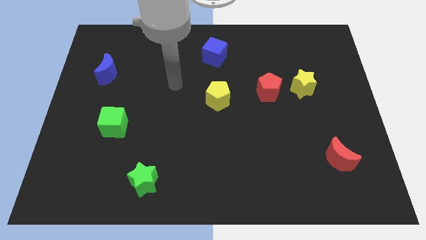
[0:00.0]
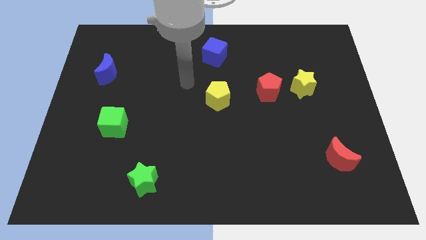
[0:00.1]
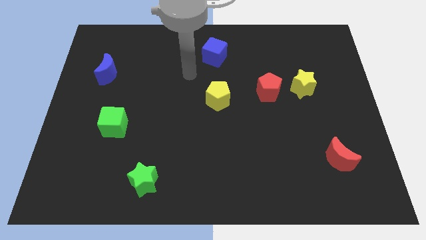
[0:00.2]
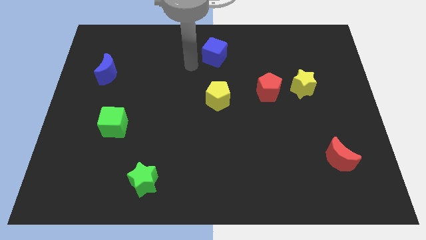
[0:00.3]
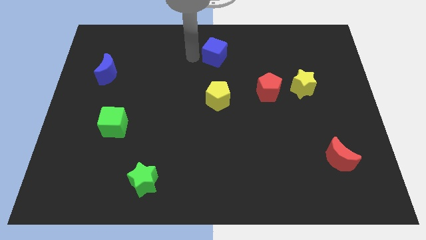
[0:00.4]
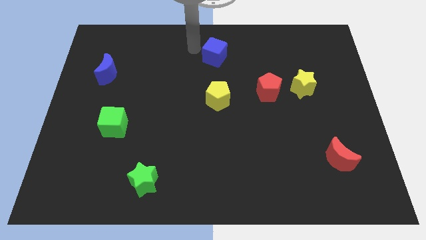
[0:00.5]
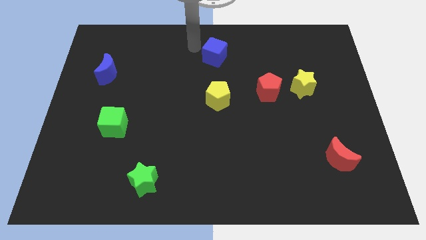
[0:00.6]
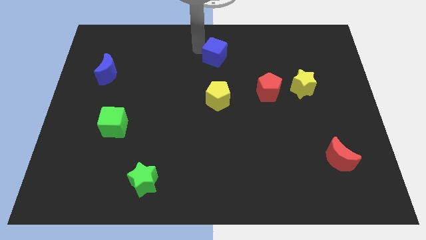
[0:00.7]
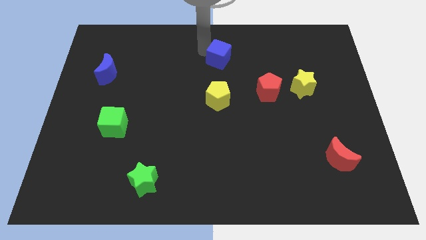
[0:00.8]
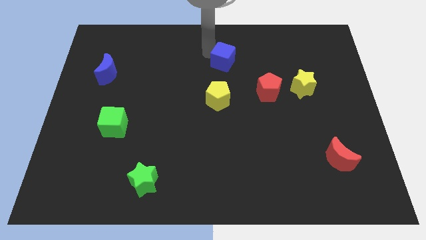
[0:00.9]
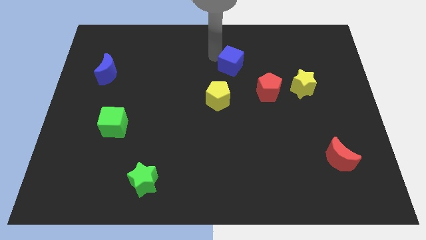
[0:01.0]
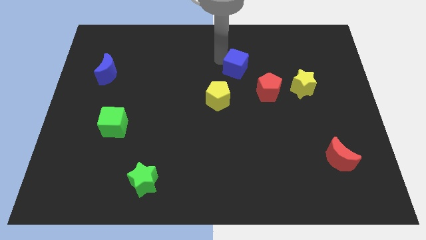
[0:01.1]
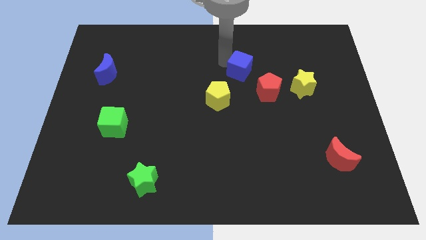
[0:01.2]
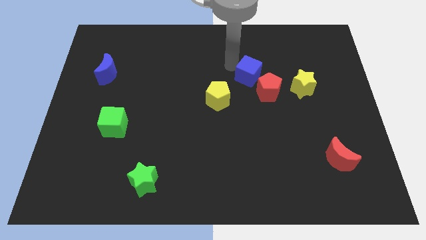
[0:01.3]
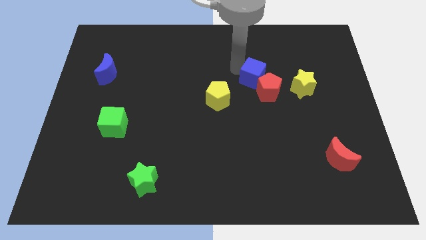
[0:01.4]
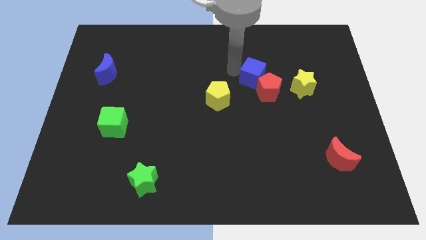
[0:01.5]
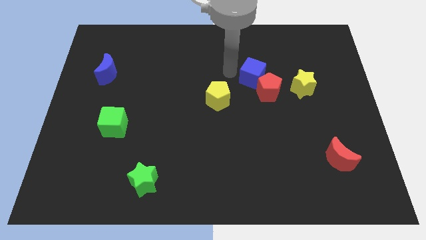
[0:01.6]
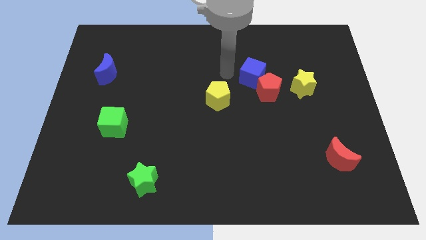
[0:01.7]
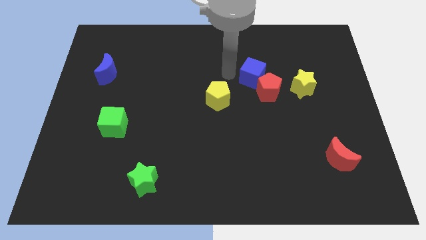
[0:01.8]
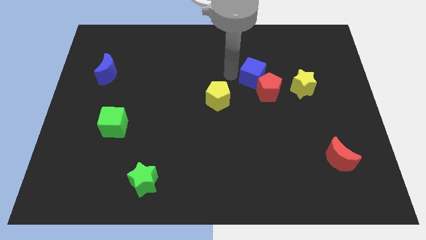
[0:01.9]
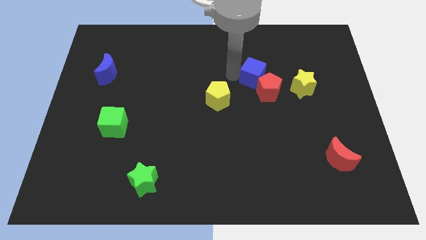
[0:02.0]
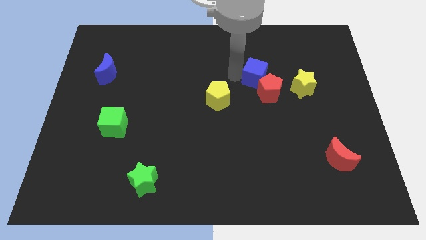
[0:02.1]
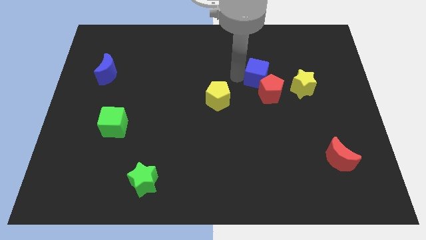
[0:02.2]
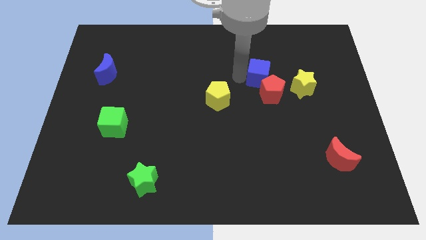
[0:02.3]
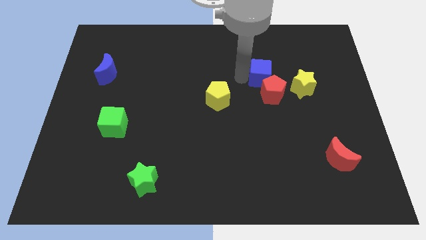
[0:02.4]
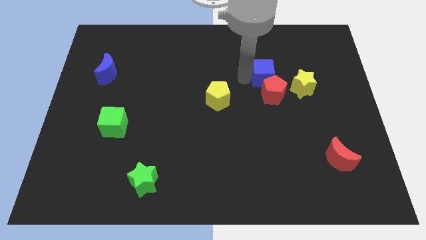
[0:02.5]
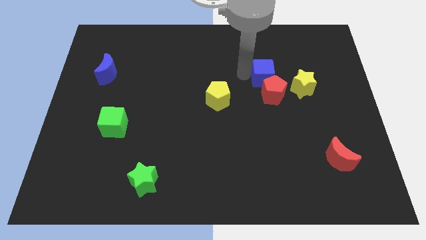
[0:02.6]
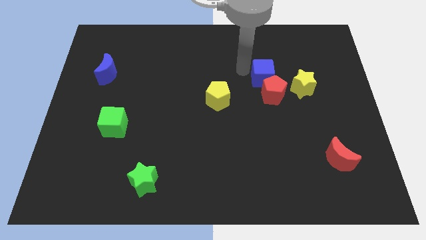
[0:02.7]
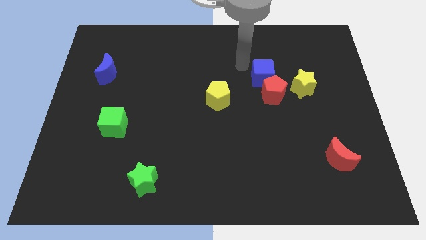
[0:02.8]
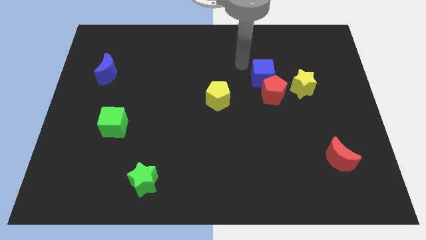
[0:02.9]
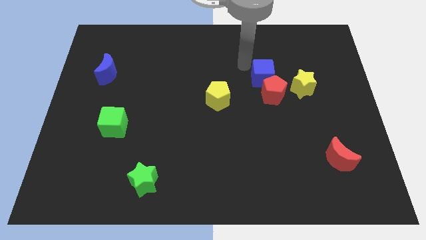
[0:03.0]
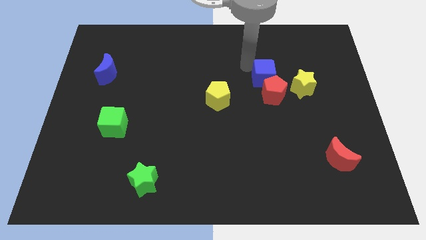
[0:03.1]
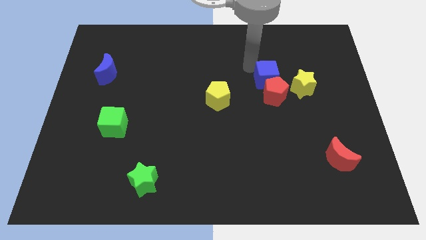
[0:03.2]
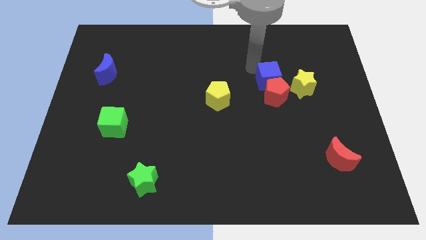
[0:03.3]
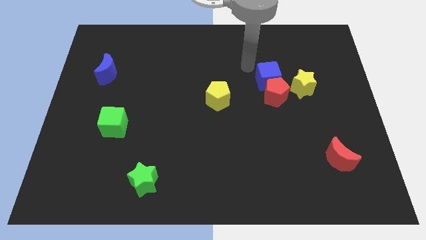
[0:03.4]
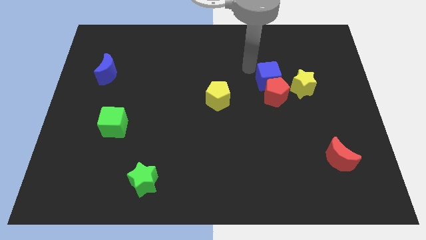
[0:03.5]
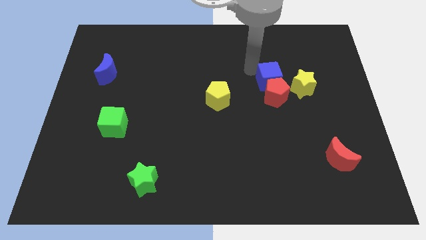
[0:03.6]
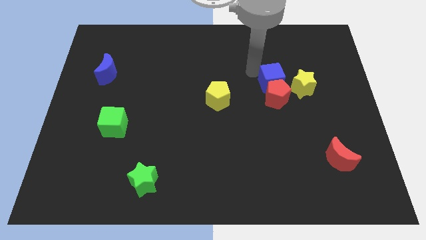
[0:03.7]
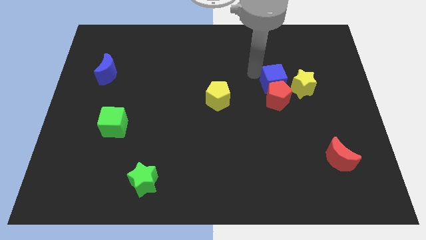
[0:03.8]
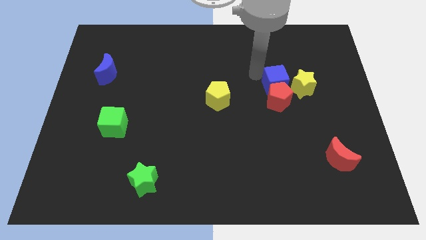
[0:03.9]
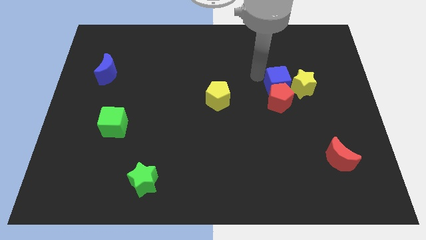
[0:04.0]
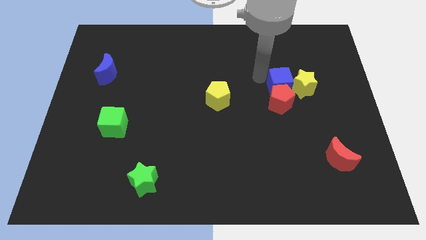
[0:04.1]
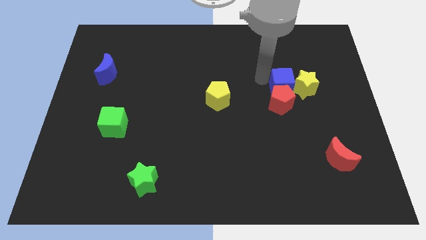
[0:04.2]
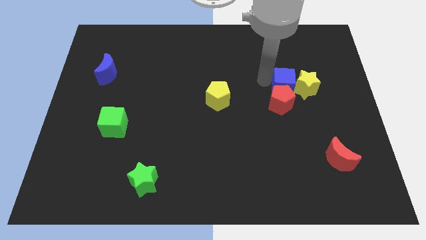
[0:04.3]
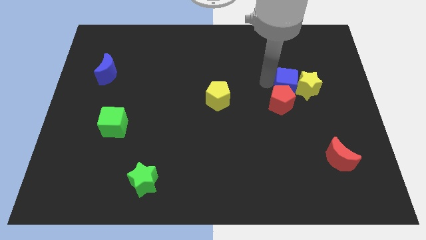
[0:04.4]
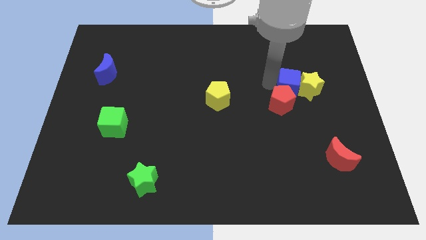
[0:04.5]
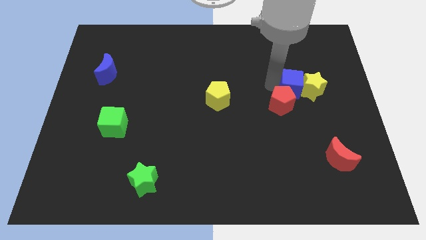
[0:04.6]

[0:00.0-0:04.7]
push the blue cube down and then to the right

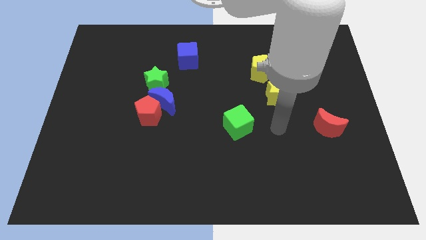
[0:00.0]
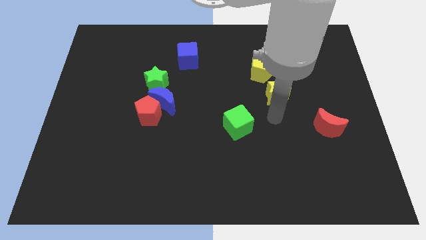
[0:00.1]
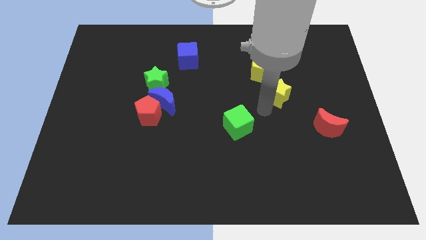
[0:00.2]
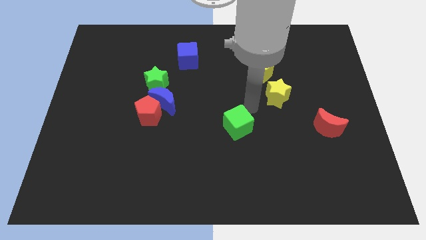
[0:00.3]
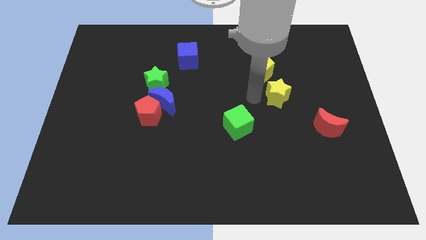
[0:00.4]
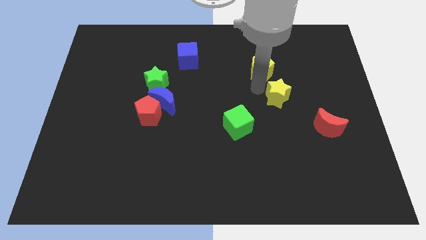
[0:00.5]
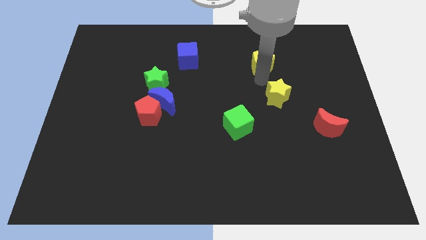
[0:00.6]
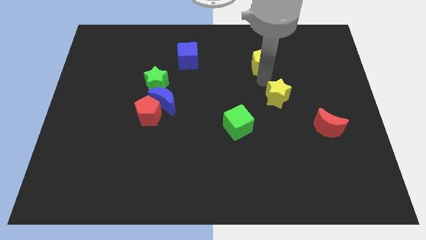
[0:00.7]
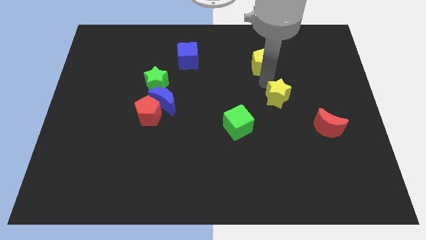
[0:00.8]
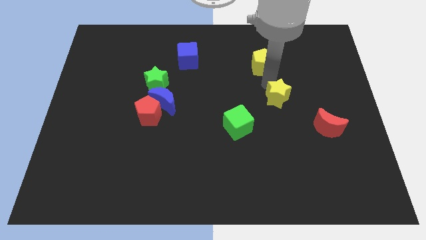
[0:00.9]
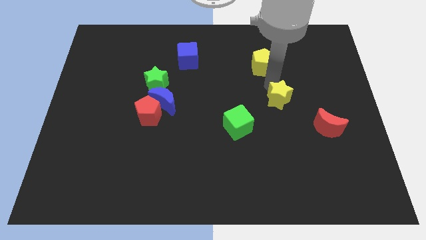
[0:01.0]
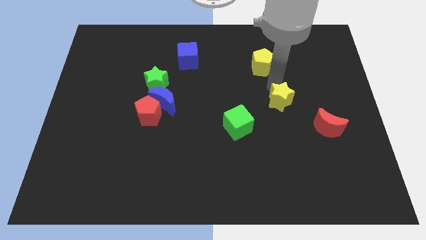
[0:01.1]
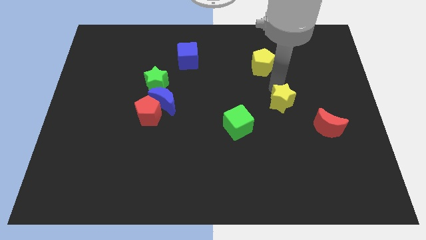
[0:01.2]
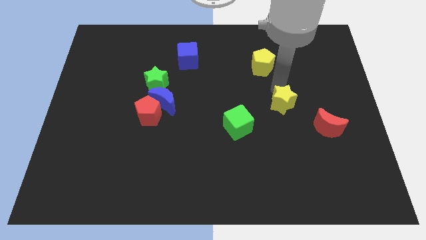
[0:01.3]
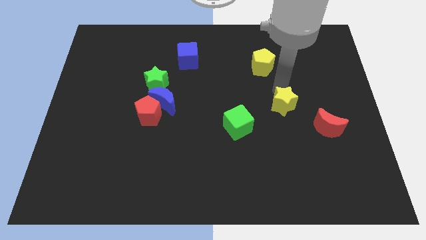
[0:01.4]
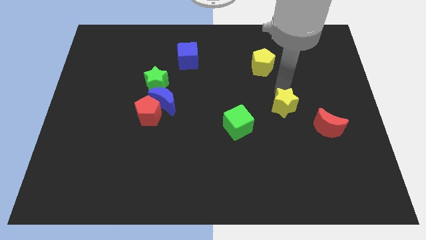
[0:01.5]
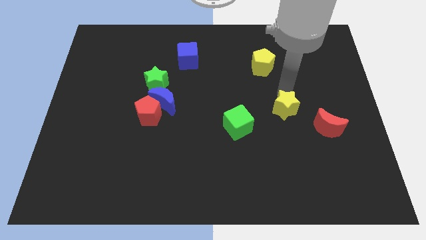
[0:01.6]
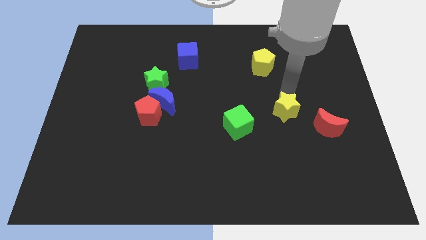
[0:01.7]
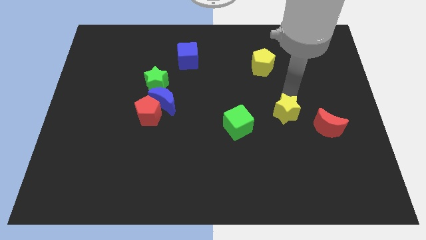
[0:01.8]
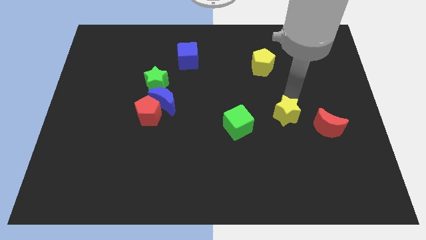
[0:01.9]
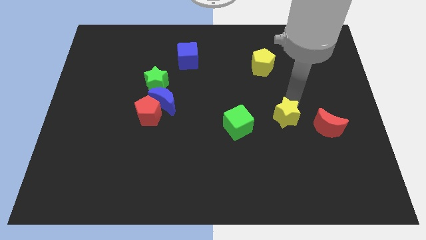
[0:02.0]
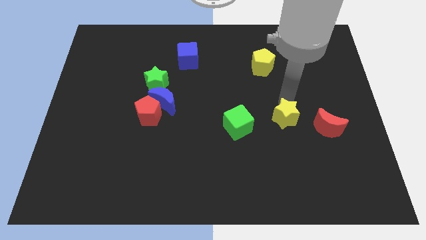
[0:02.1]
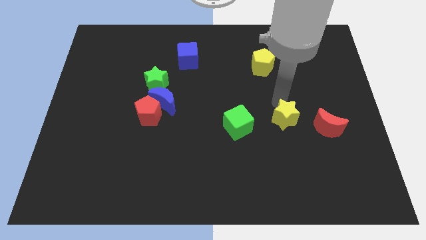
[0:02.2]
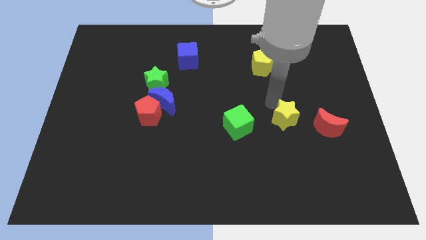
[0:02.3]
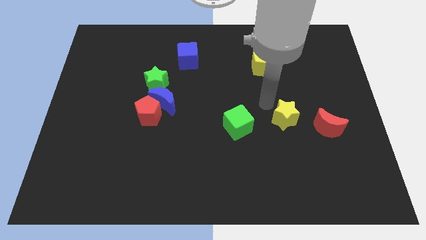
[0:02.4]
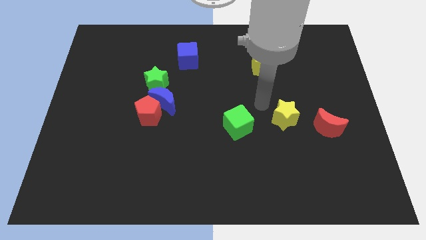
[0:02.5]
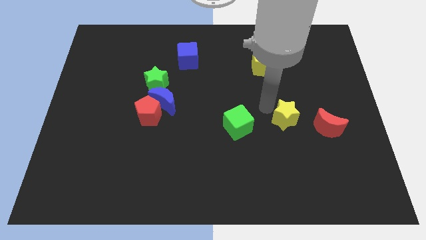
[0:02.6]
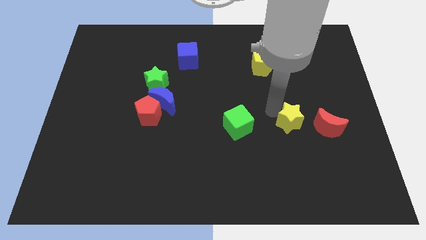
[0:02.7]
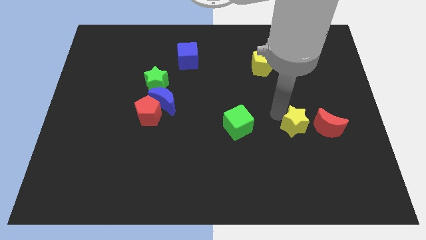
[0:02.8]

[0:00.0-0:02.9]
slightly push the yellow star down and to the right diagonally

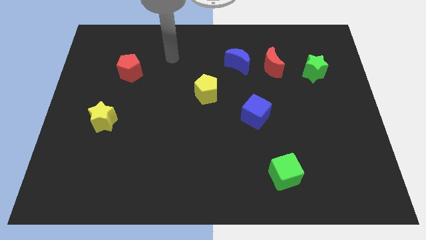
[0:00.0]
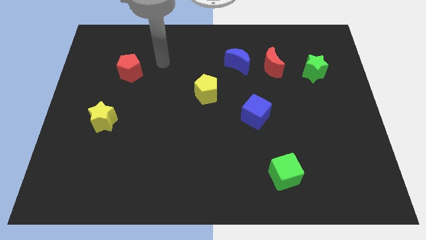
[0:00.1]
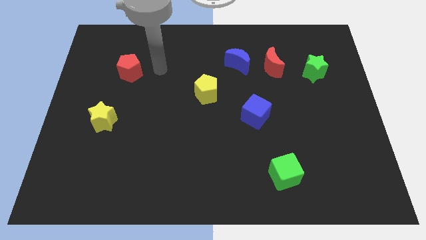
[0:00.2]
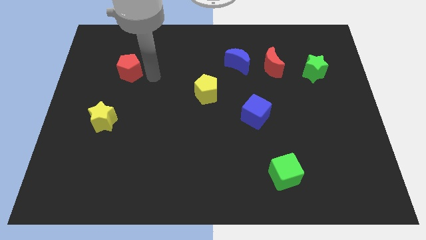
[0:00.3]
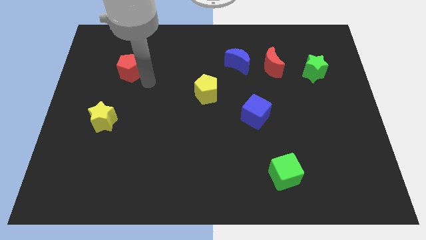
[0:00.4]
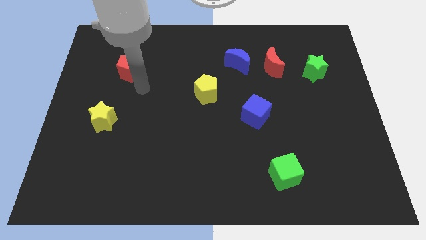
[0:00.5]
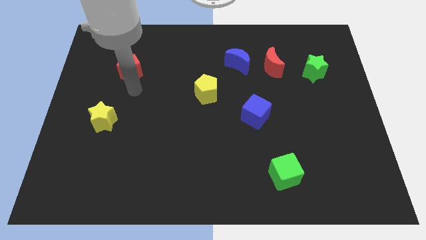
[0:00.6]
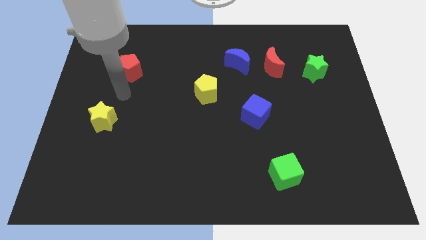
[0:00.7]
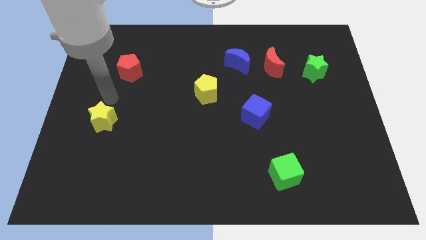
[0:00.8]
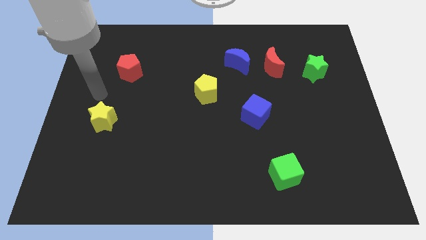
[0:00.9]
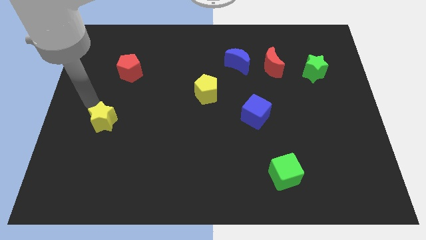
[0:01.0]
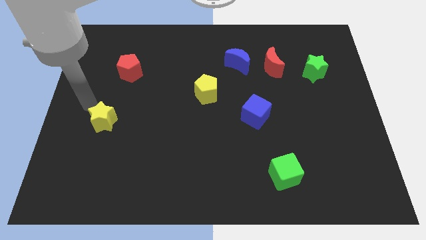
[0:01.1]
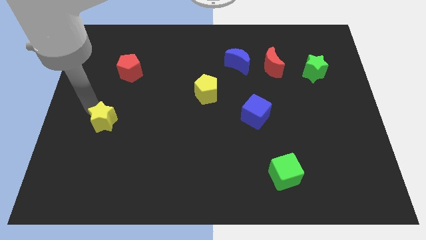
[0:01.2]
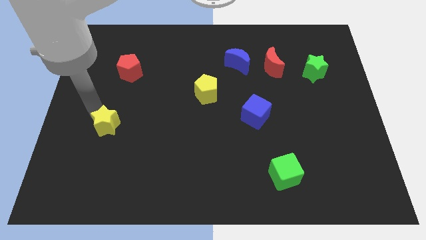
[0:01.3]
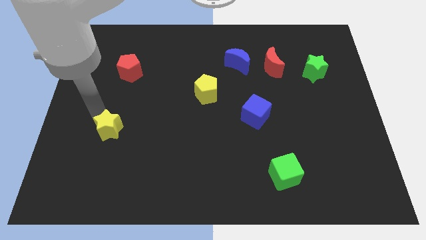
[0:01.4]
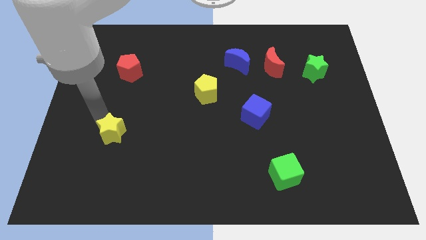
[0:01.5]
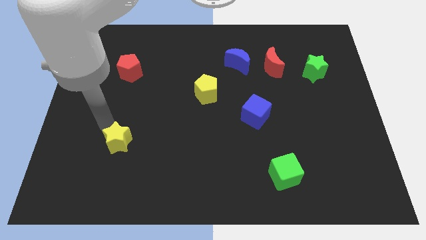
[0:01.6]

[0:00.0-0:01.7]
slide the yellow star downwards and then right a bit
